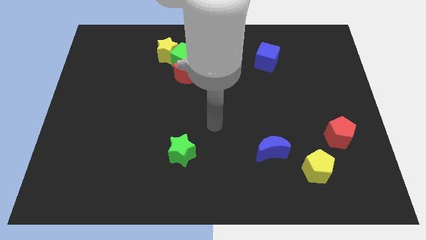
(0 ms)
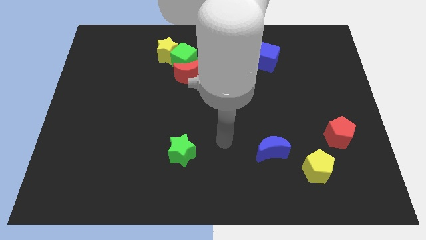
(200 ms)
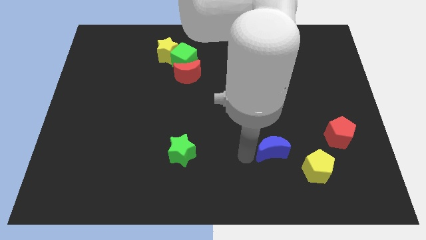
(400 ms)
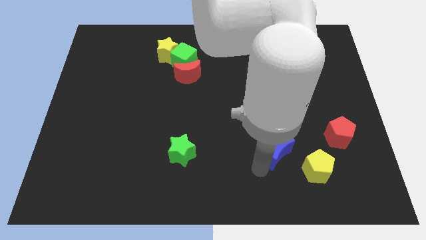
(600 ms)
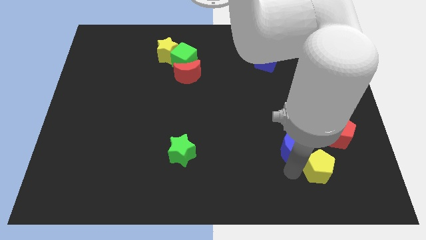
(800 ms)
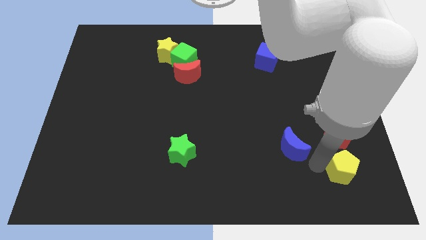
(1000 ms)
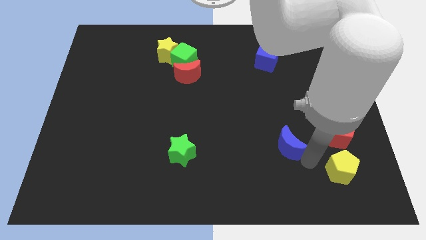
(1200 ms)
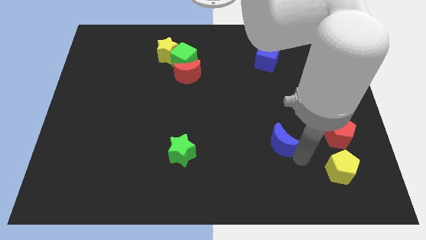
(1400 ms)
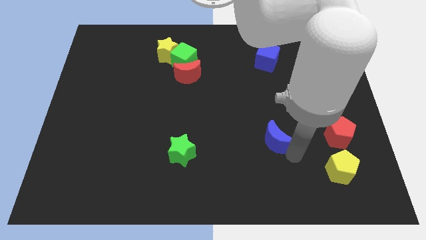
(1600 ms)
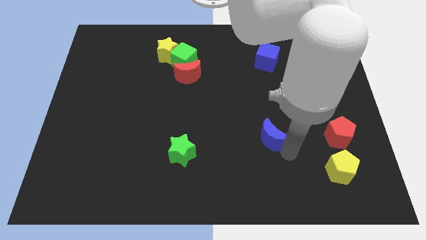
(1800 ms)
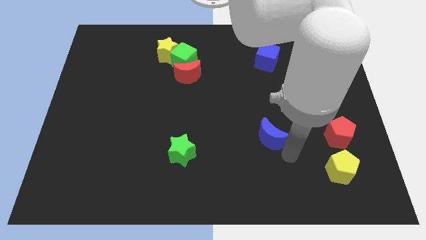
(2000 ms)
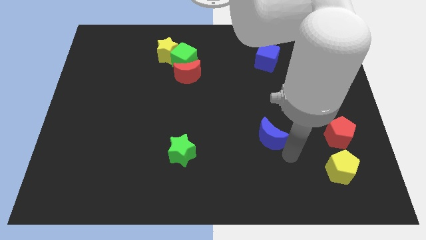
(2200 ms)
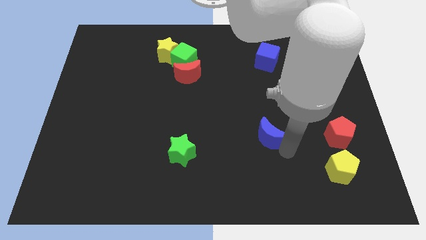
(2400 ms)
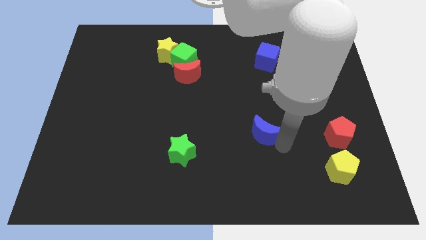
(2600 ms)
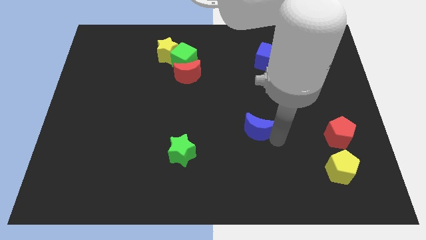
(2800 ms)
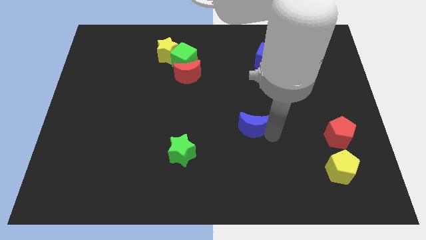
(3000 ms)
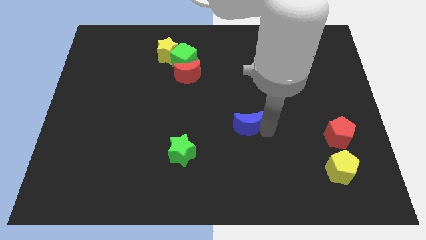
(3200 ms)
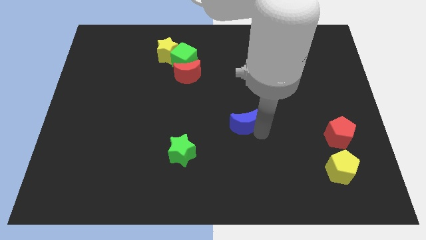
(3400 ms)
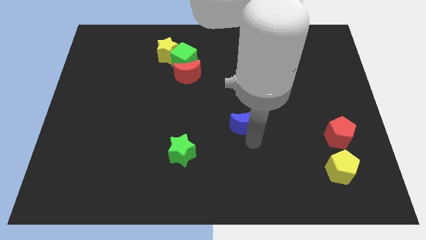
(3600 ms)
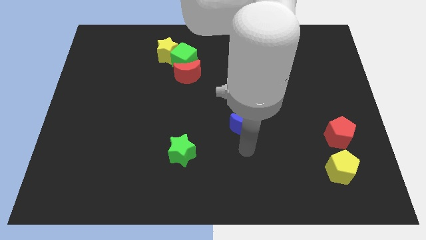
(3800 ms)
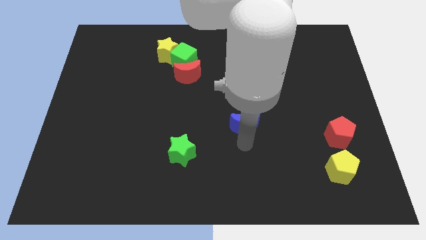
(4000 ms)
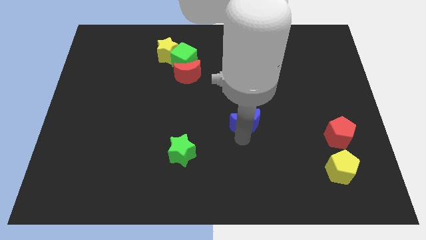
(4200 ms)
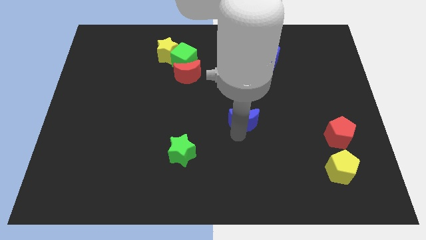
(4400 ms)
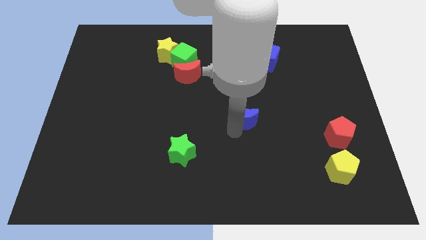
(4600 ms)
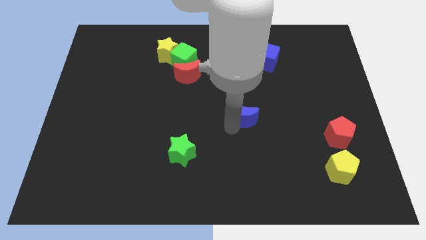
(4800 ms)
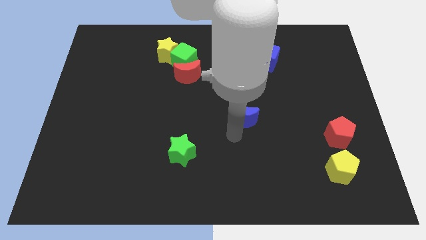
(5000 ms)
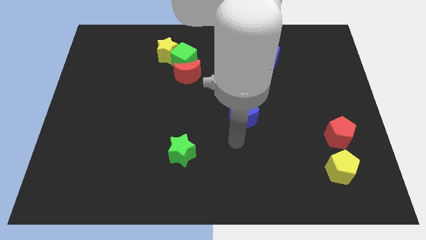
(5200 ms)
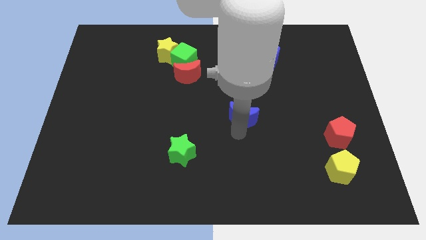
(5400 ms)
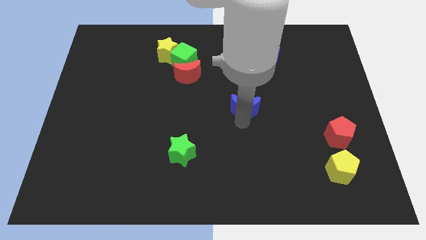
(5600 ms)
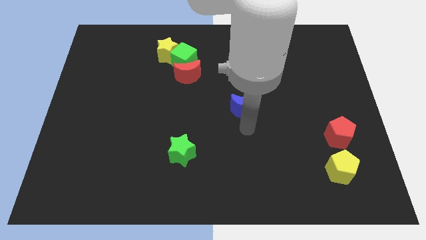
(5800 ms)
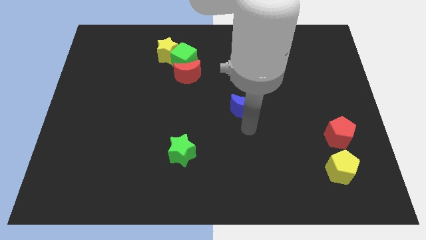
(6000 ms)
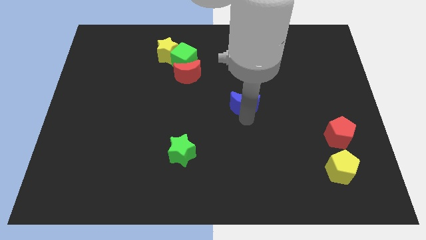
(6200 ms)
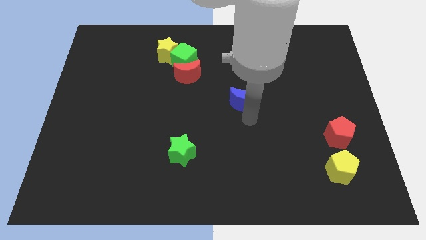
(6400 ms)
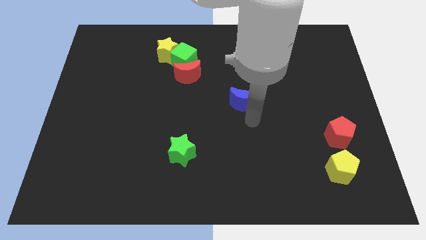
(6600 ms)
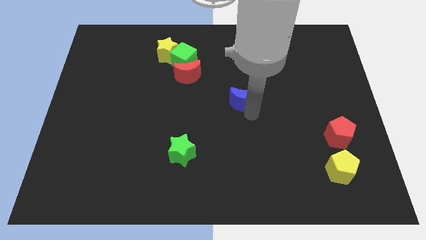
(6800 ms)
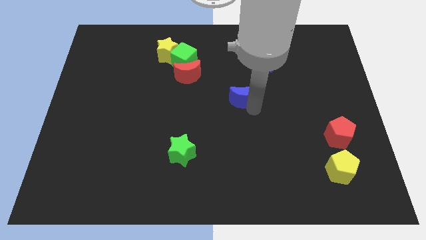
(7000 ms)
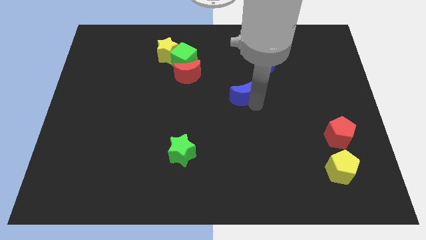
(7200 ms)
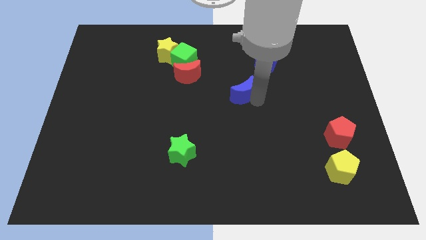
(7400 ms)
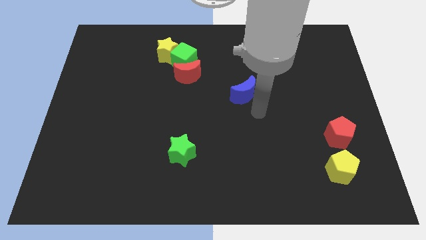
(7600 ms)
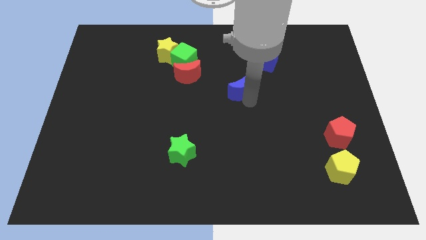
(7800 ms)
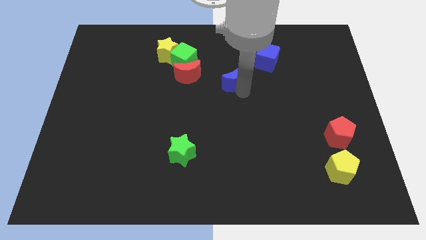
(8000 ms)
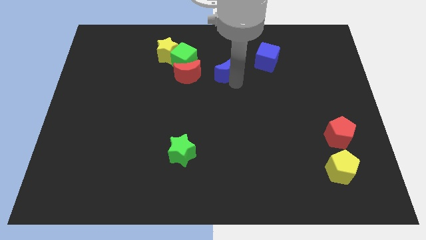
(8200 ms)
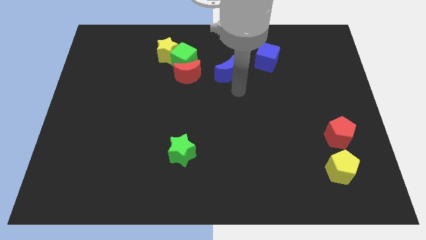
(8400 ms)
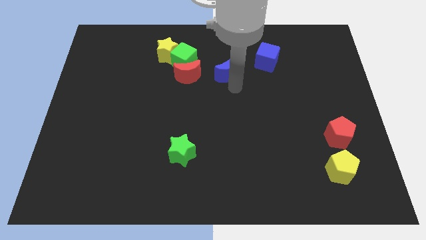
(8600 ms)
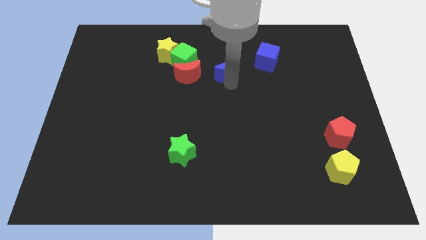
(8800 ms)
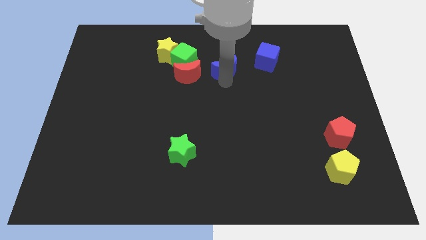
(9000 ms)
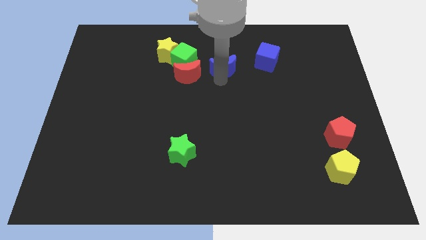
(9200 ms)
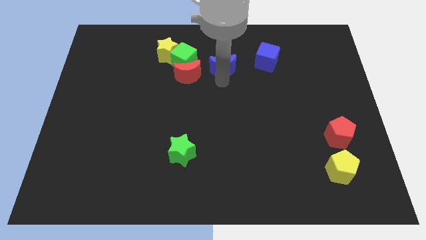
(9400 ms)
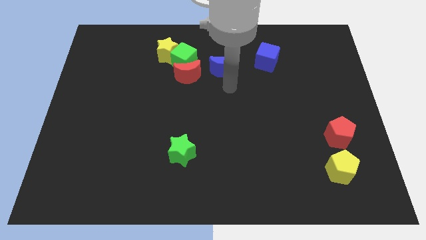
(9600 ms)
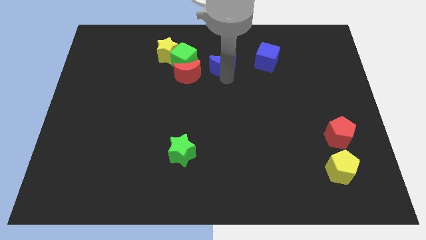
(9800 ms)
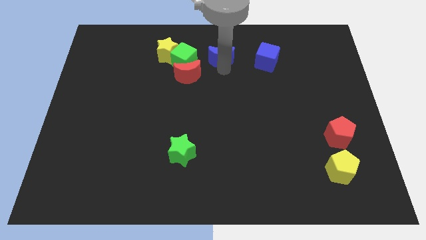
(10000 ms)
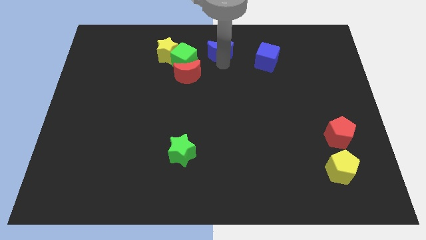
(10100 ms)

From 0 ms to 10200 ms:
put the blue moon to the towards your base

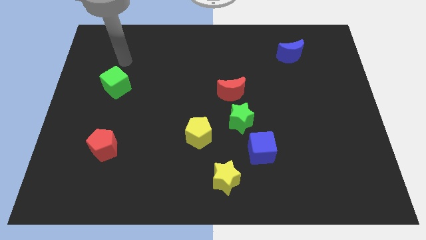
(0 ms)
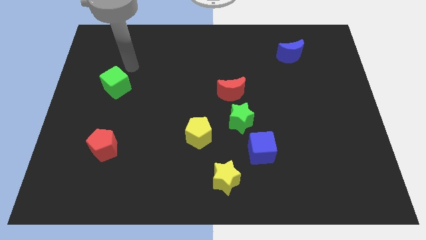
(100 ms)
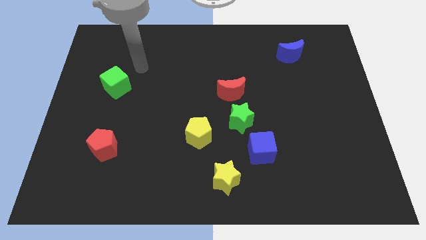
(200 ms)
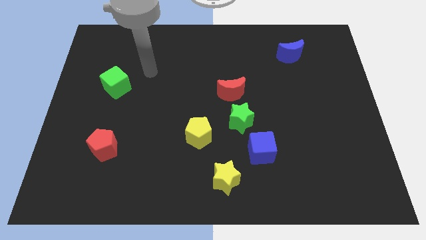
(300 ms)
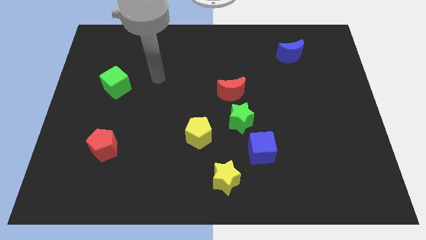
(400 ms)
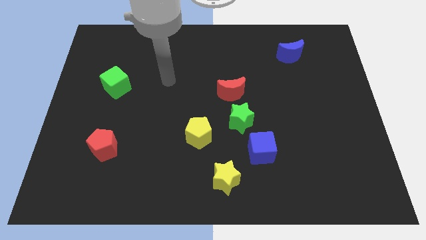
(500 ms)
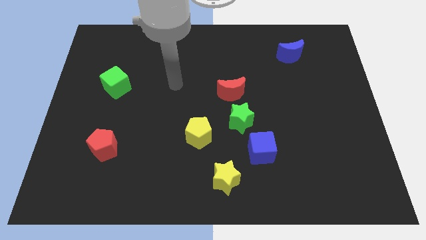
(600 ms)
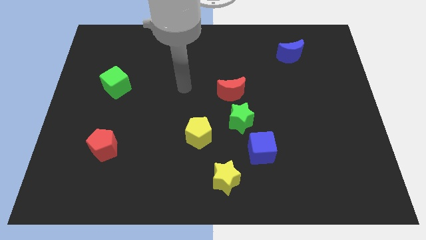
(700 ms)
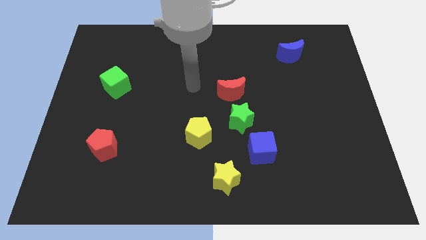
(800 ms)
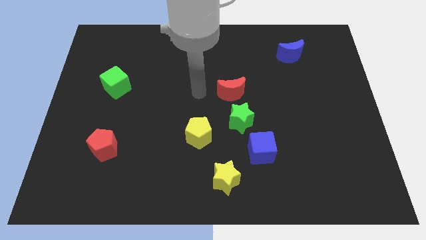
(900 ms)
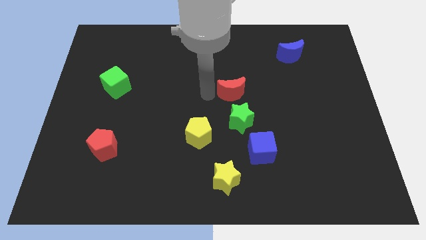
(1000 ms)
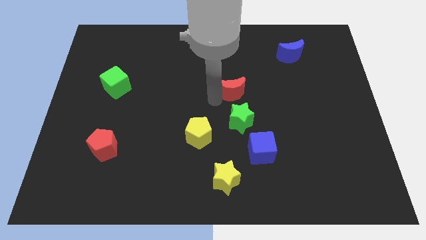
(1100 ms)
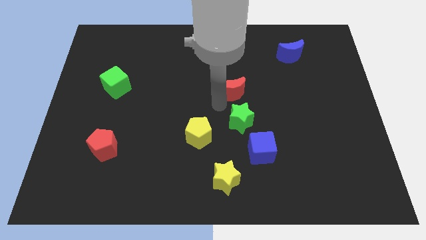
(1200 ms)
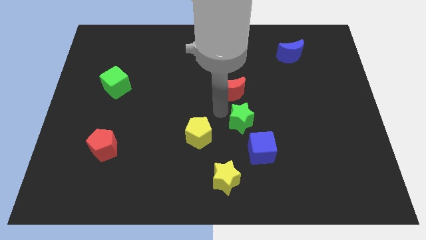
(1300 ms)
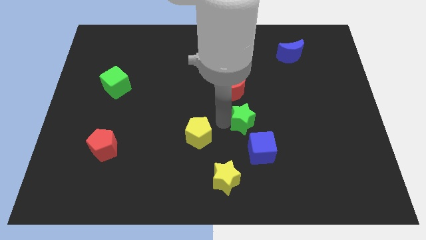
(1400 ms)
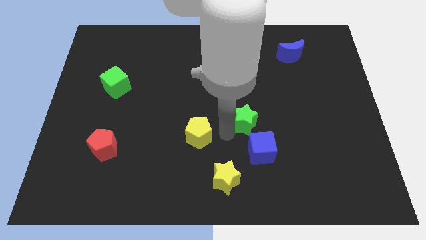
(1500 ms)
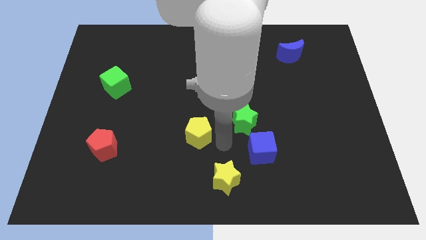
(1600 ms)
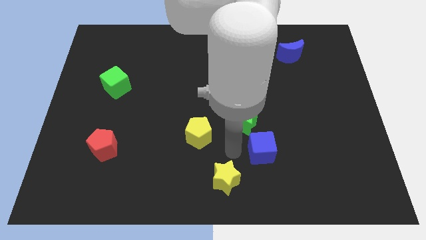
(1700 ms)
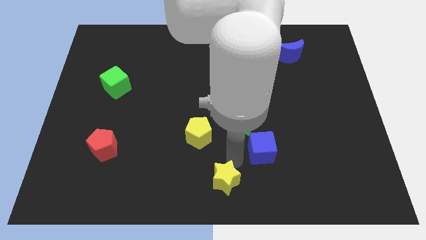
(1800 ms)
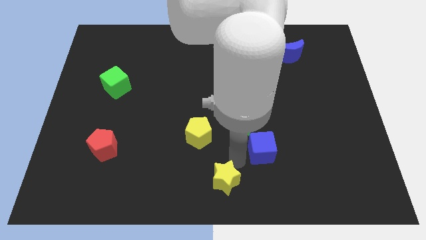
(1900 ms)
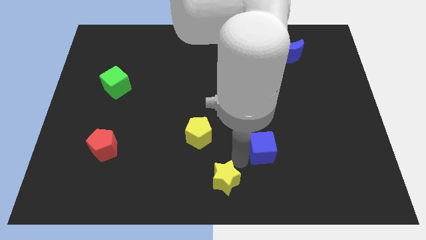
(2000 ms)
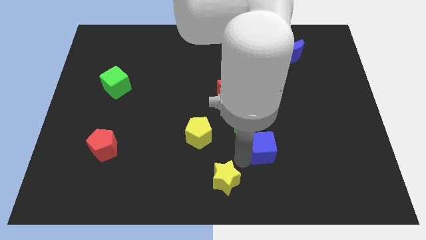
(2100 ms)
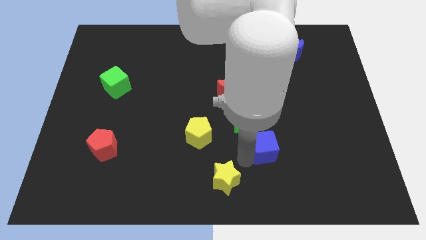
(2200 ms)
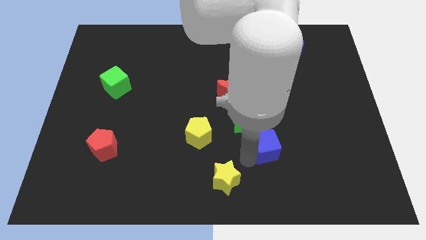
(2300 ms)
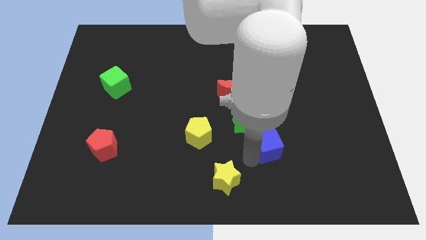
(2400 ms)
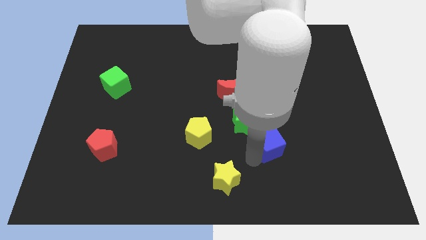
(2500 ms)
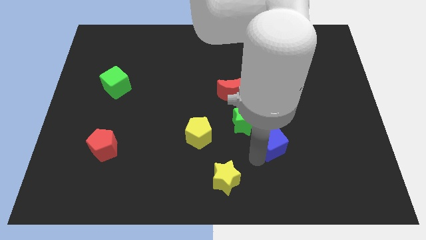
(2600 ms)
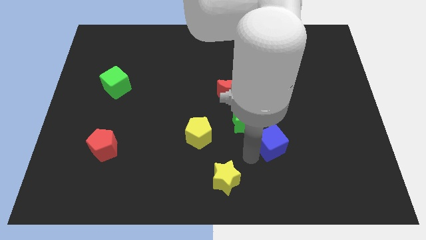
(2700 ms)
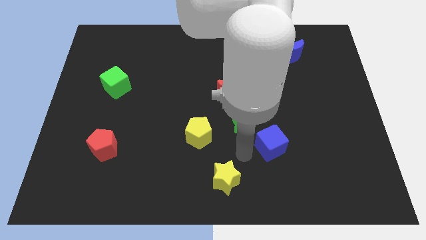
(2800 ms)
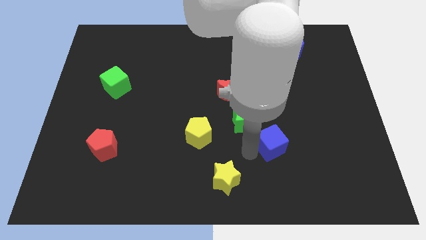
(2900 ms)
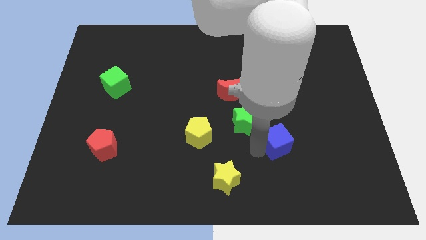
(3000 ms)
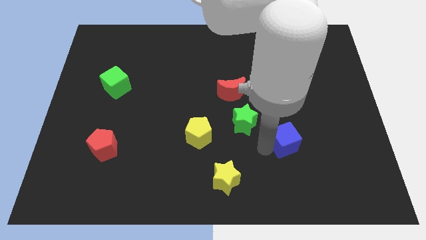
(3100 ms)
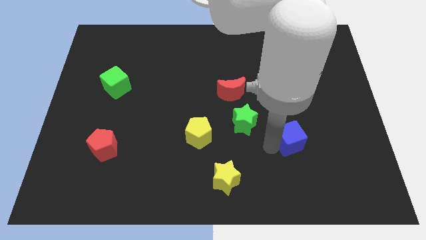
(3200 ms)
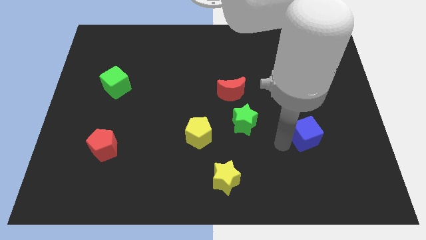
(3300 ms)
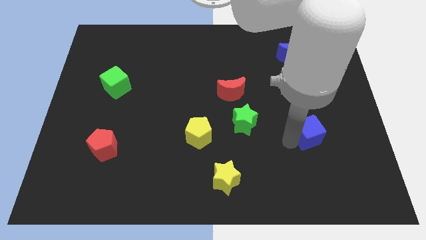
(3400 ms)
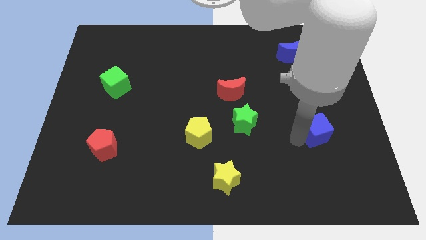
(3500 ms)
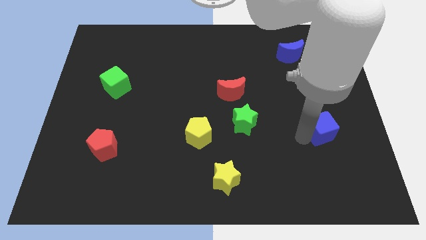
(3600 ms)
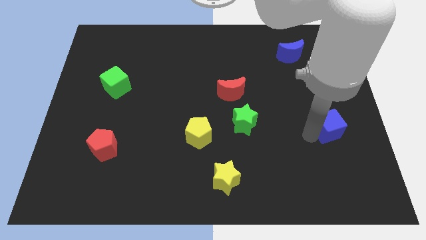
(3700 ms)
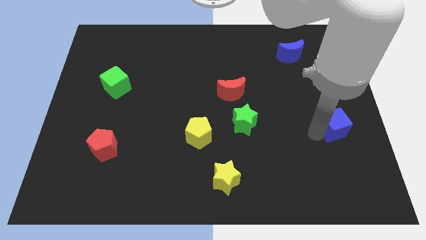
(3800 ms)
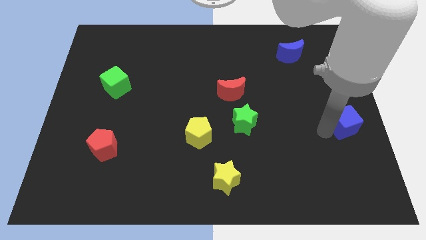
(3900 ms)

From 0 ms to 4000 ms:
put the blue cube to the right side of the board
